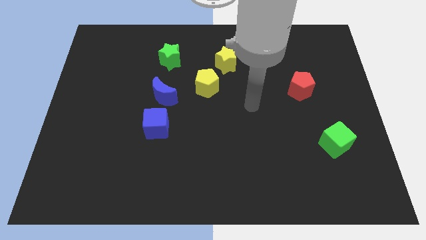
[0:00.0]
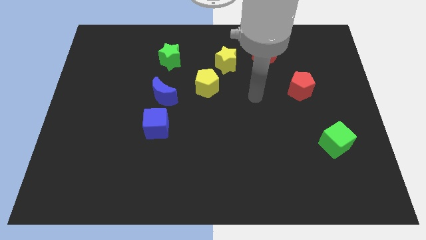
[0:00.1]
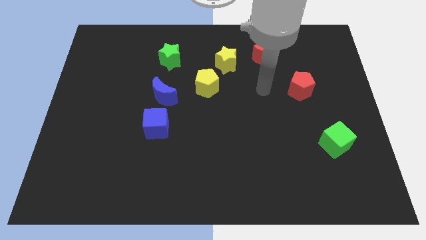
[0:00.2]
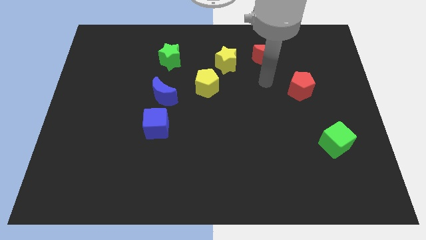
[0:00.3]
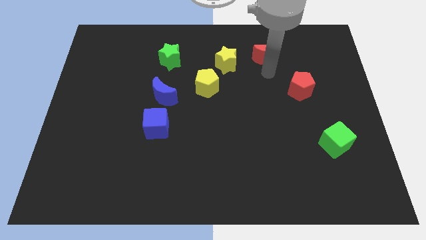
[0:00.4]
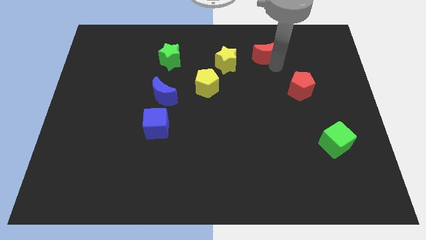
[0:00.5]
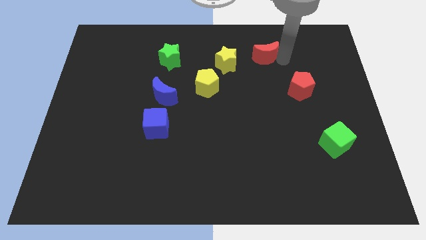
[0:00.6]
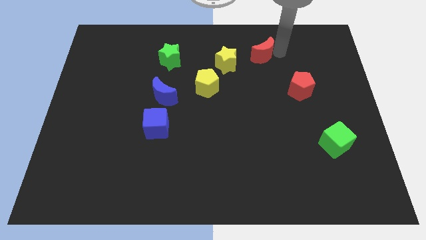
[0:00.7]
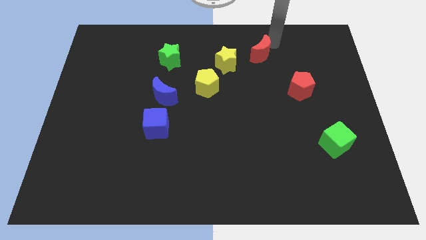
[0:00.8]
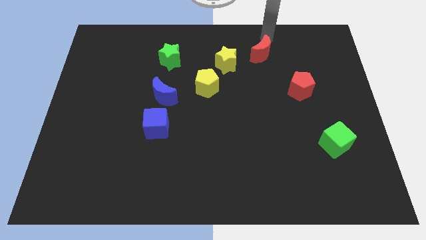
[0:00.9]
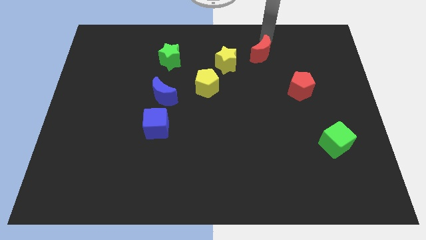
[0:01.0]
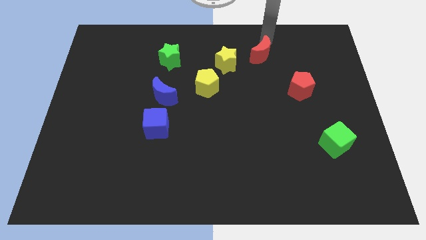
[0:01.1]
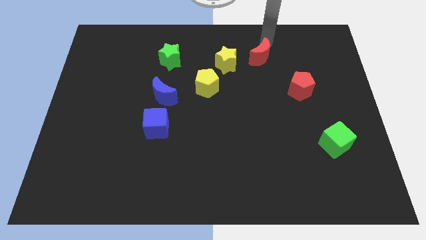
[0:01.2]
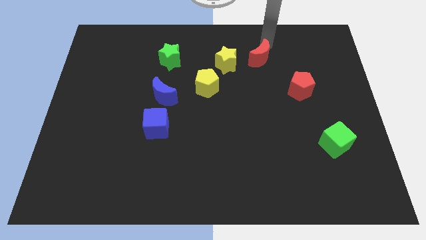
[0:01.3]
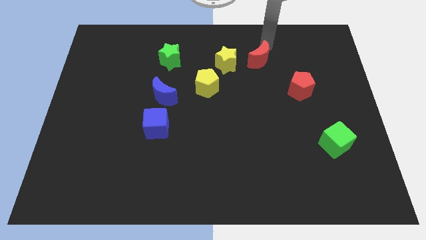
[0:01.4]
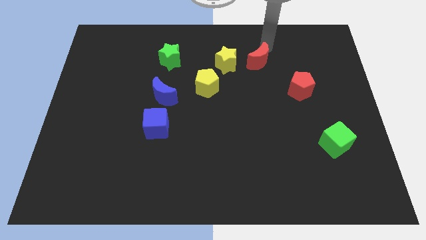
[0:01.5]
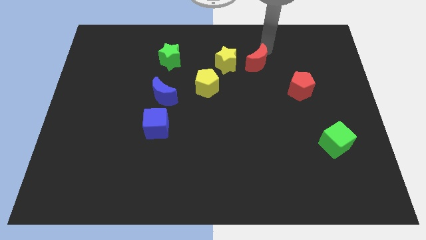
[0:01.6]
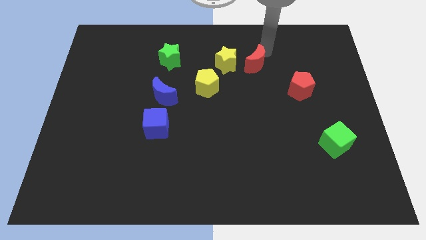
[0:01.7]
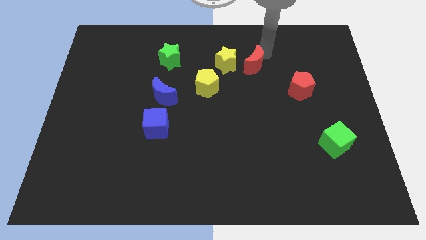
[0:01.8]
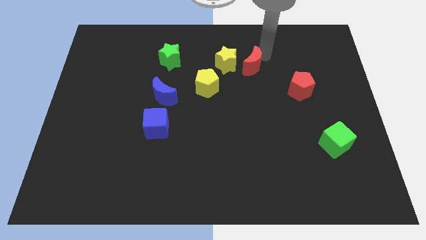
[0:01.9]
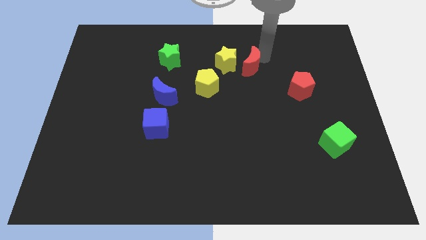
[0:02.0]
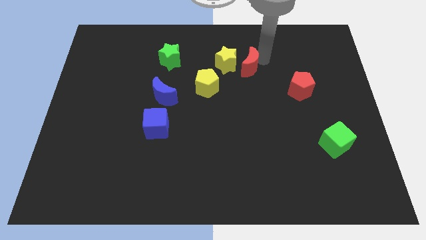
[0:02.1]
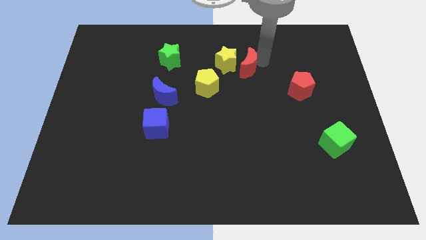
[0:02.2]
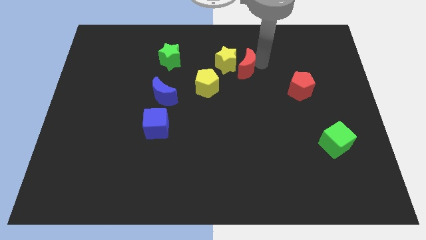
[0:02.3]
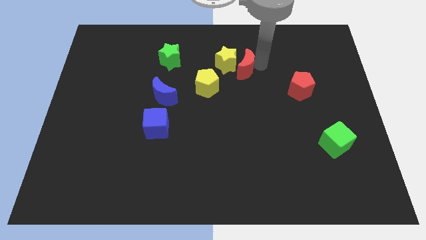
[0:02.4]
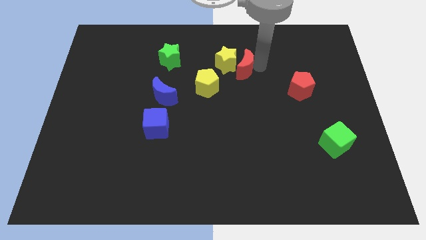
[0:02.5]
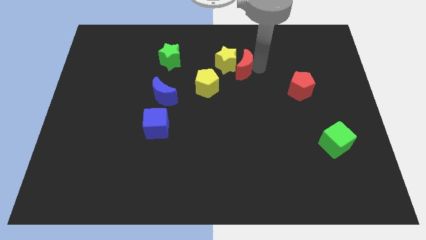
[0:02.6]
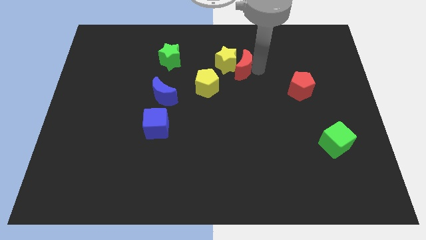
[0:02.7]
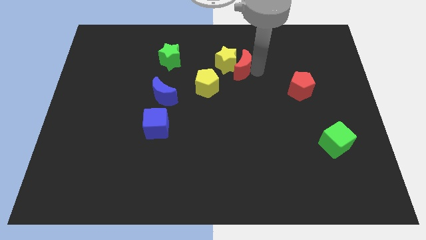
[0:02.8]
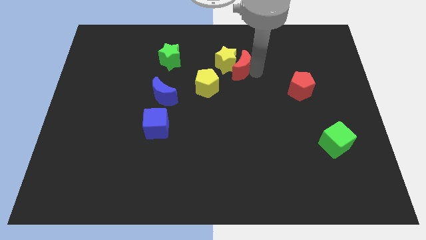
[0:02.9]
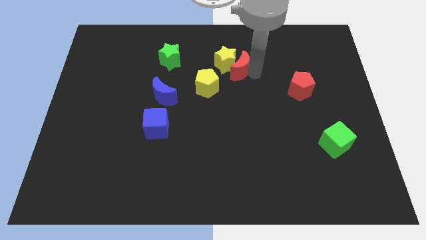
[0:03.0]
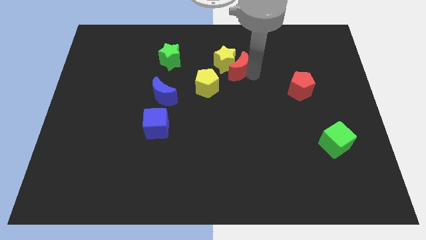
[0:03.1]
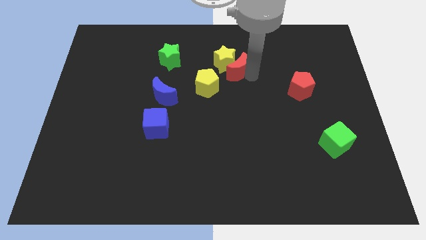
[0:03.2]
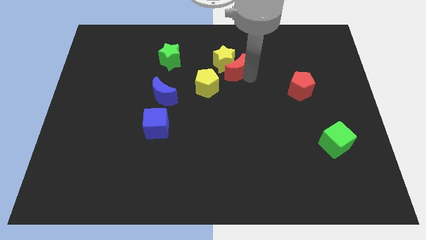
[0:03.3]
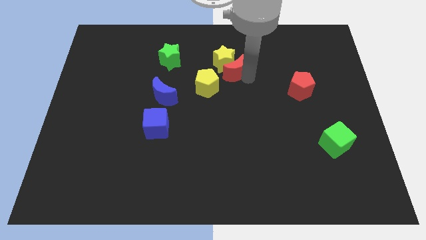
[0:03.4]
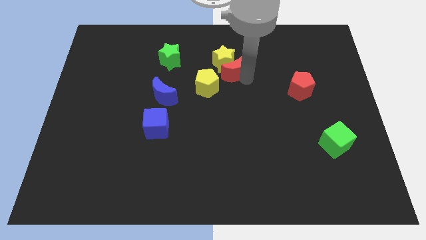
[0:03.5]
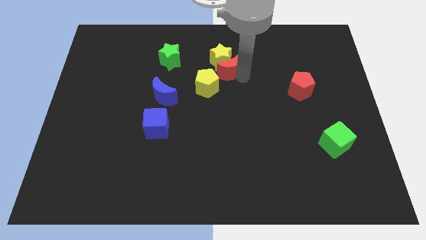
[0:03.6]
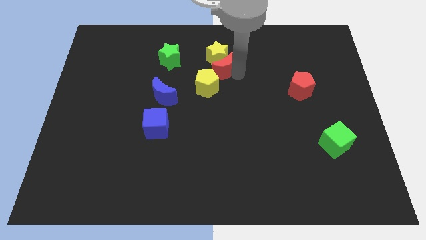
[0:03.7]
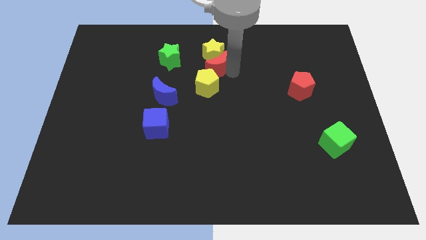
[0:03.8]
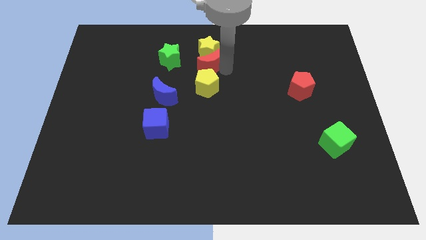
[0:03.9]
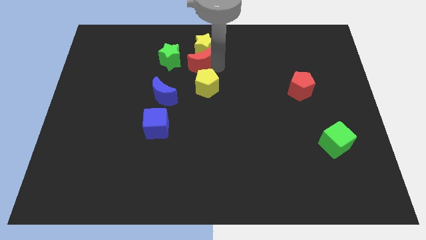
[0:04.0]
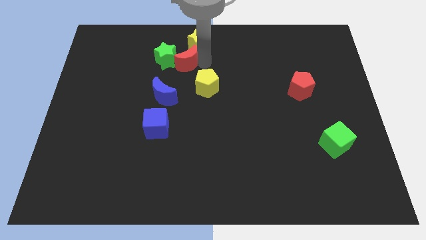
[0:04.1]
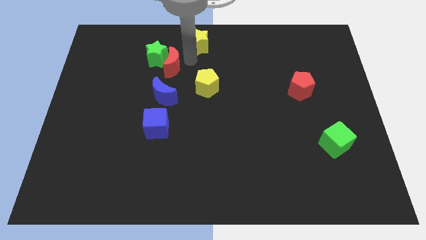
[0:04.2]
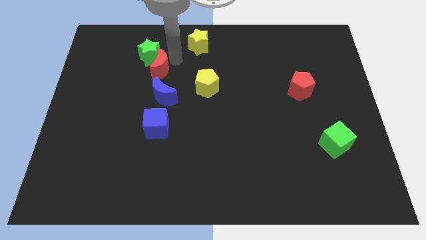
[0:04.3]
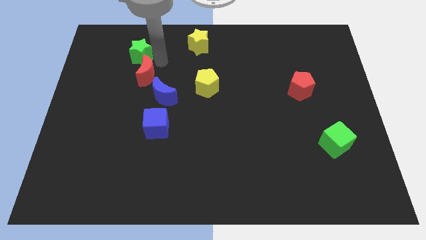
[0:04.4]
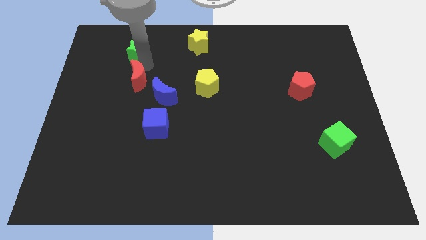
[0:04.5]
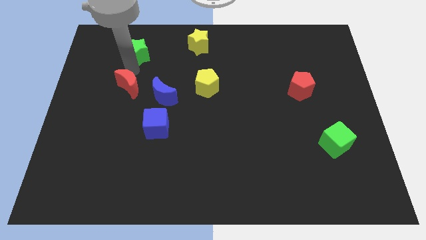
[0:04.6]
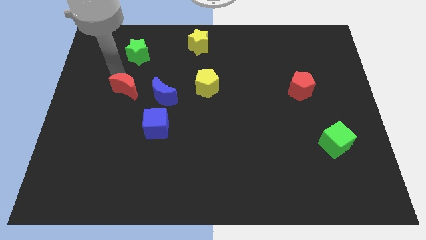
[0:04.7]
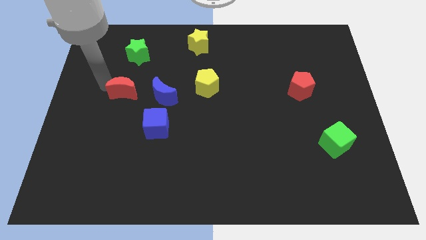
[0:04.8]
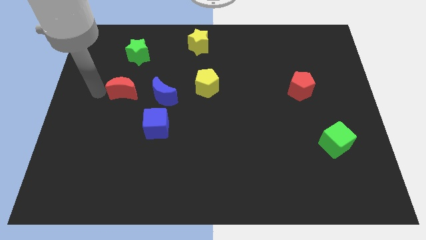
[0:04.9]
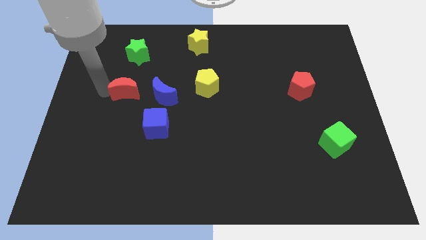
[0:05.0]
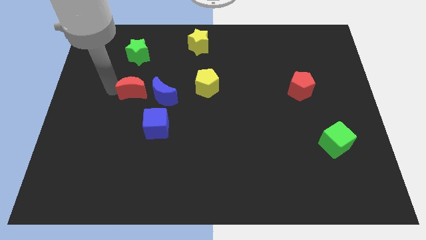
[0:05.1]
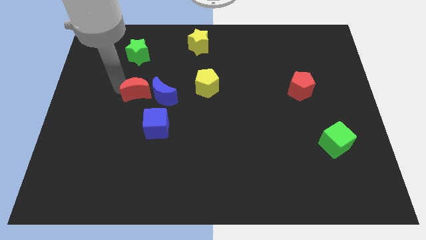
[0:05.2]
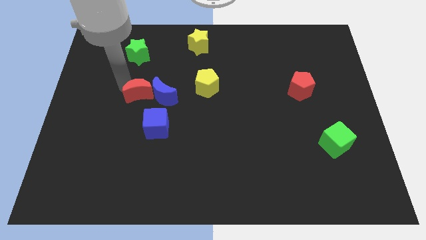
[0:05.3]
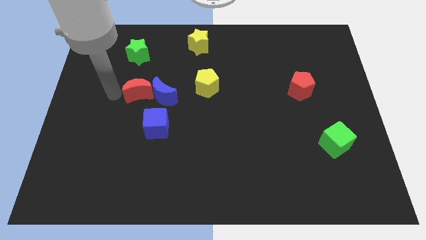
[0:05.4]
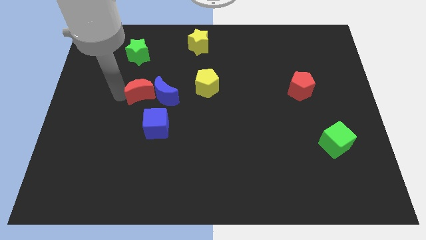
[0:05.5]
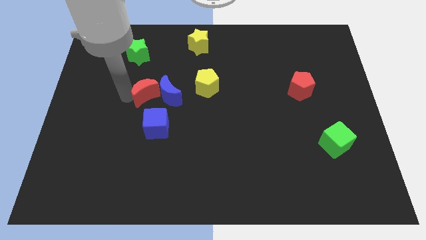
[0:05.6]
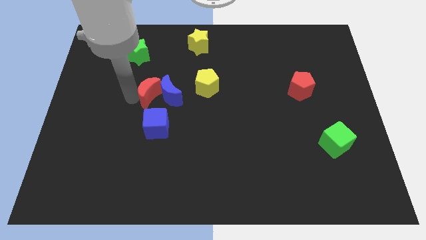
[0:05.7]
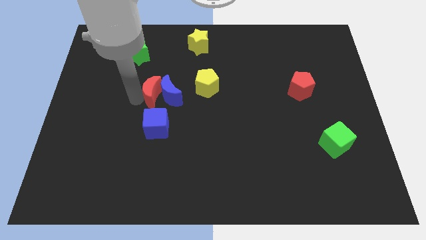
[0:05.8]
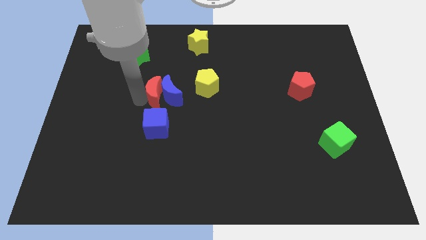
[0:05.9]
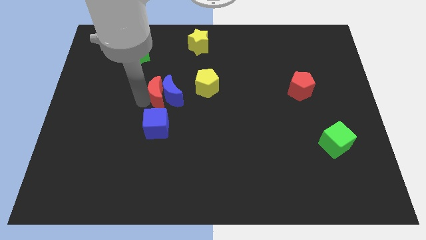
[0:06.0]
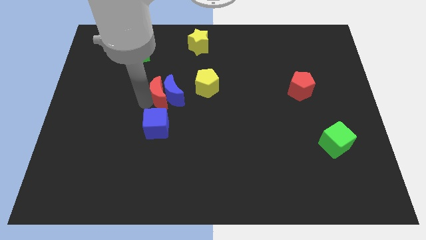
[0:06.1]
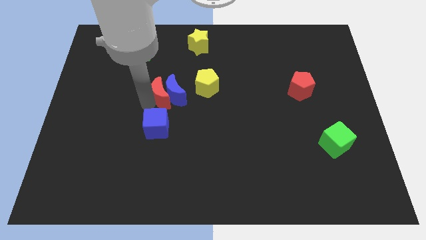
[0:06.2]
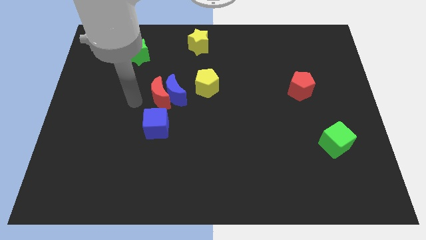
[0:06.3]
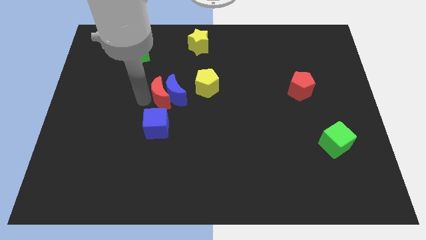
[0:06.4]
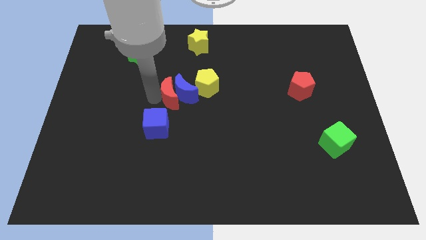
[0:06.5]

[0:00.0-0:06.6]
move the red moon diagonally up and to the right of the blue cube
